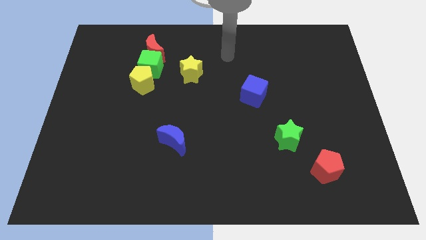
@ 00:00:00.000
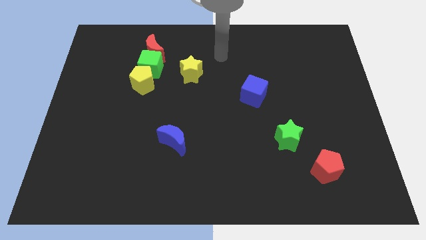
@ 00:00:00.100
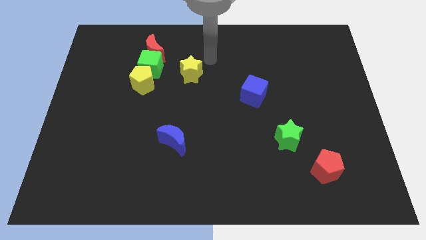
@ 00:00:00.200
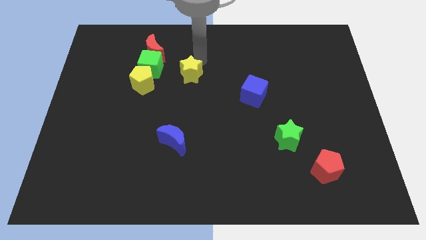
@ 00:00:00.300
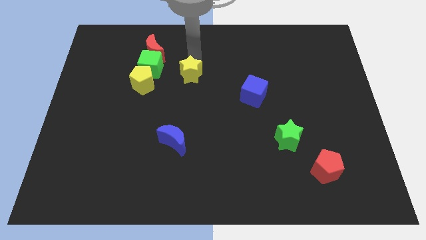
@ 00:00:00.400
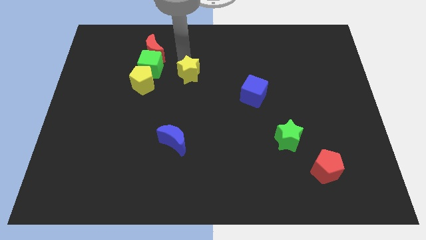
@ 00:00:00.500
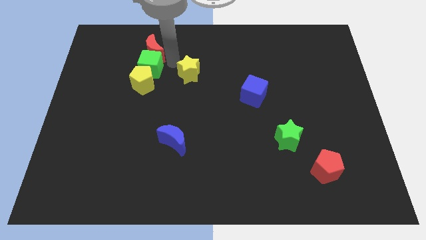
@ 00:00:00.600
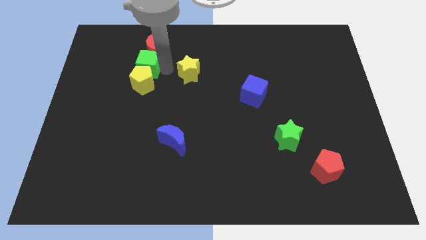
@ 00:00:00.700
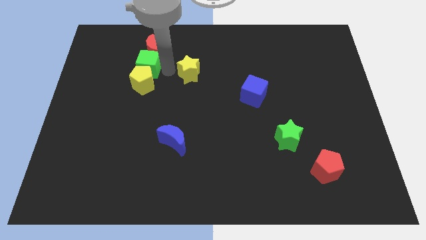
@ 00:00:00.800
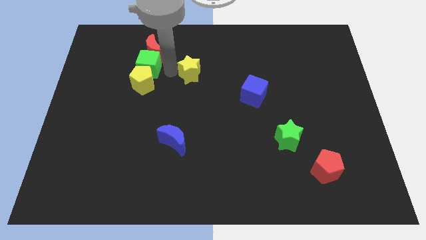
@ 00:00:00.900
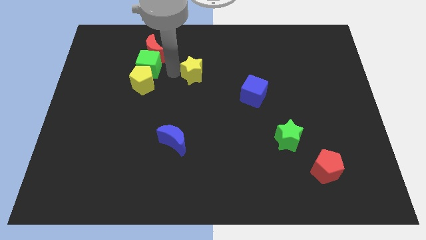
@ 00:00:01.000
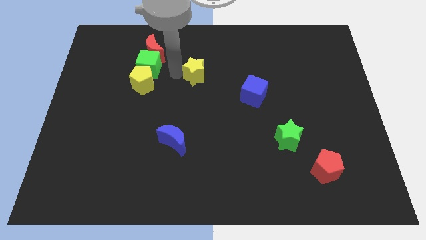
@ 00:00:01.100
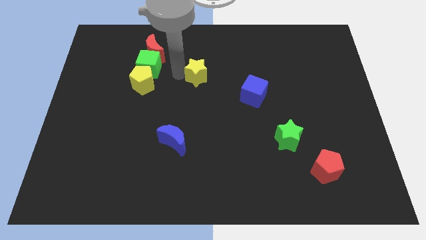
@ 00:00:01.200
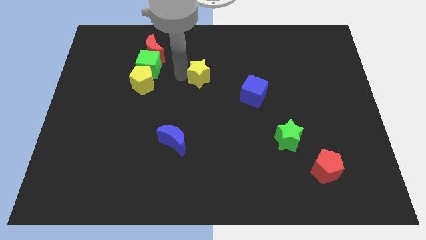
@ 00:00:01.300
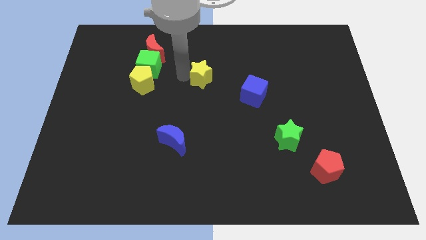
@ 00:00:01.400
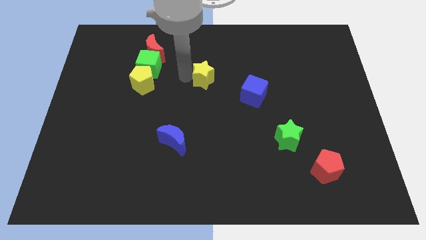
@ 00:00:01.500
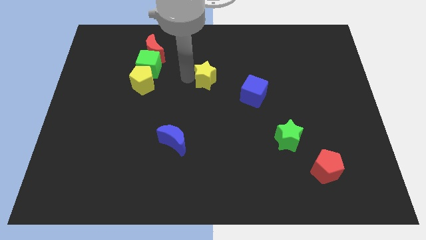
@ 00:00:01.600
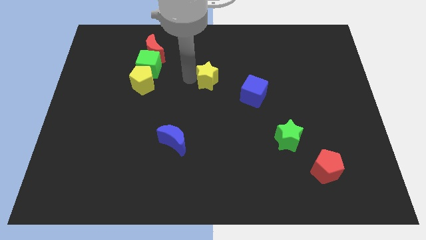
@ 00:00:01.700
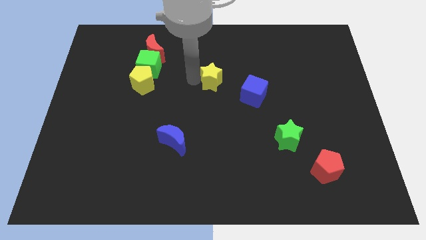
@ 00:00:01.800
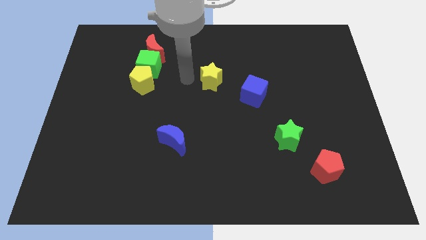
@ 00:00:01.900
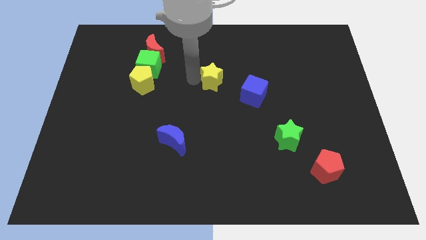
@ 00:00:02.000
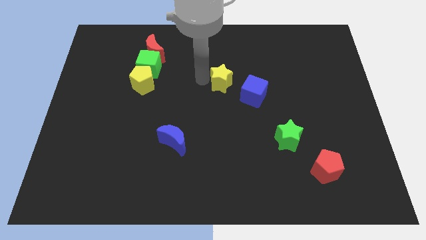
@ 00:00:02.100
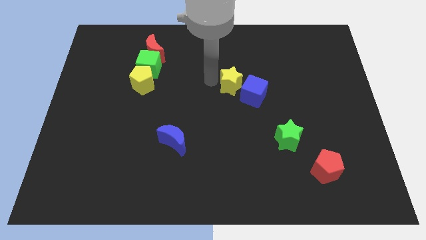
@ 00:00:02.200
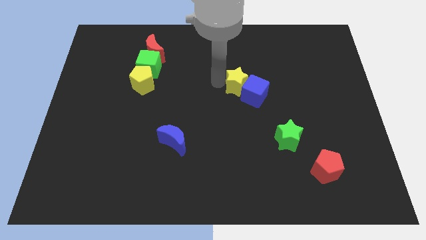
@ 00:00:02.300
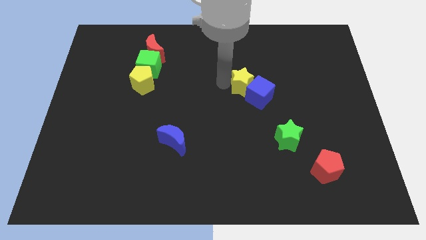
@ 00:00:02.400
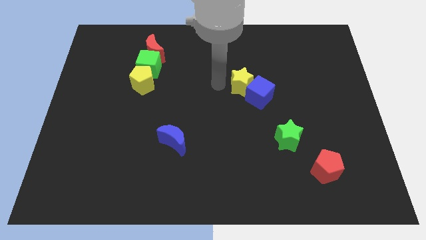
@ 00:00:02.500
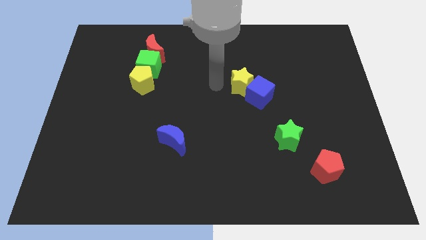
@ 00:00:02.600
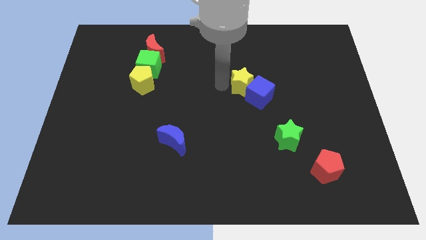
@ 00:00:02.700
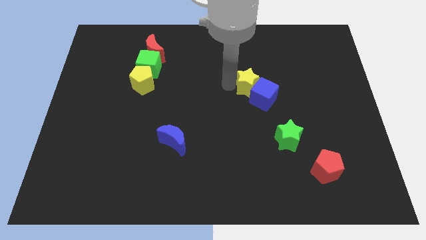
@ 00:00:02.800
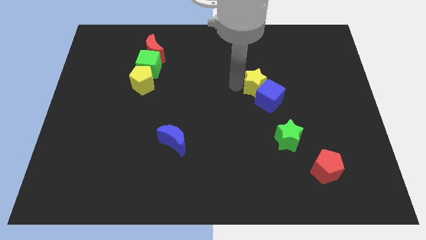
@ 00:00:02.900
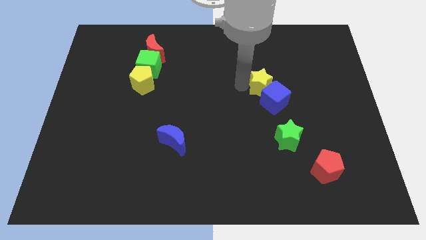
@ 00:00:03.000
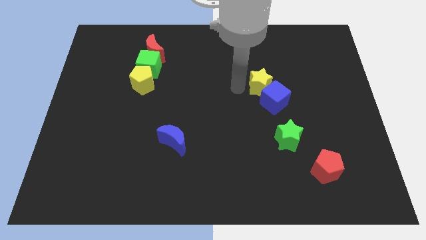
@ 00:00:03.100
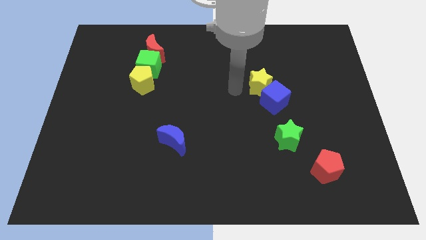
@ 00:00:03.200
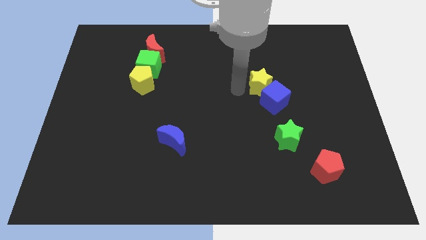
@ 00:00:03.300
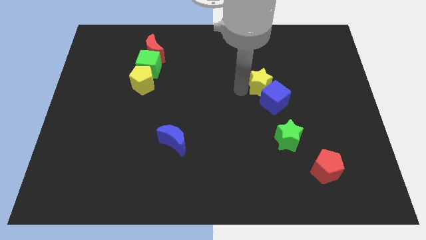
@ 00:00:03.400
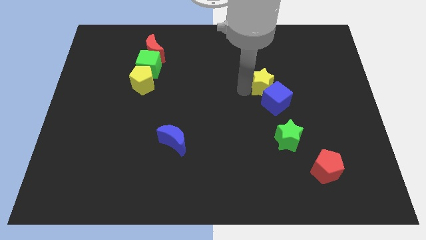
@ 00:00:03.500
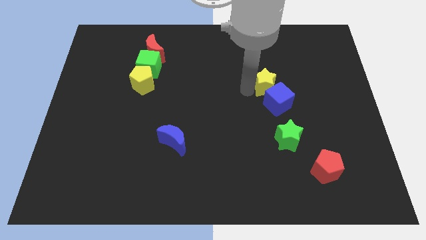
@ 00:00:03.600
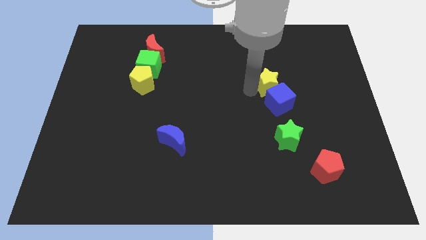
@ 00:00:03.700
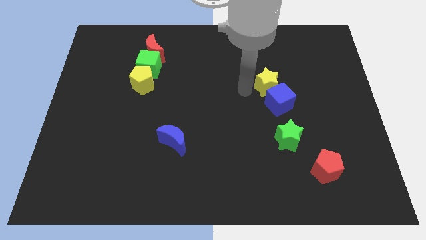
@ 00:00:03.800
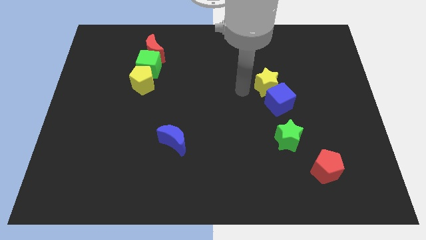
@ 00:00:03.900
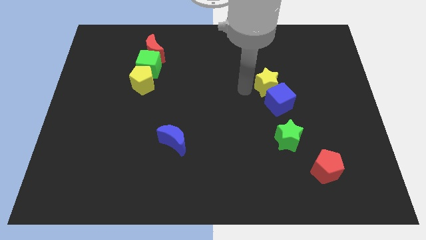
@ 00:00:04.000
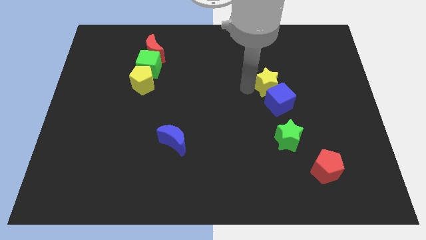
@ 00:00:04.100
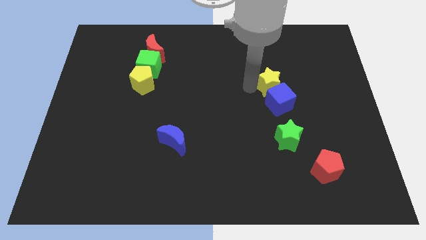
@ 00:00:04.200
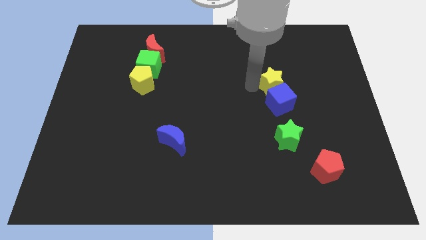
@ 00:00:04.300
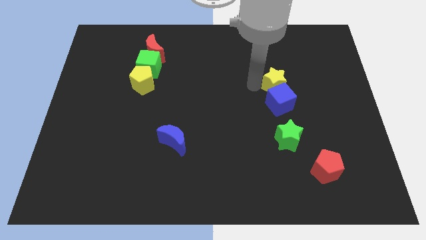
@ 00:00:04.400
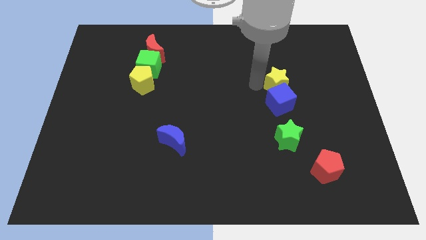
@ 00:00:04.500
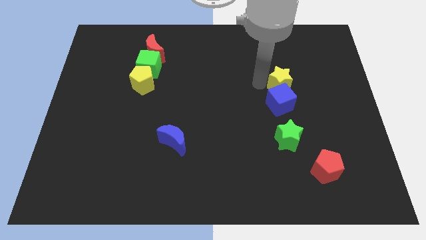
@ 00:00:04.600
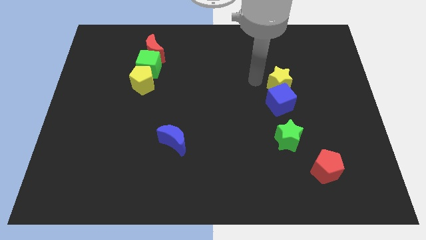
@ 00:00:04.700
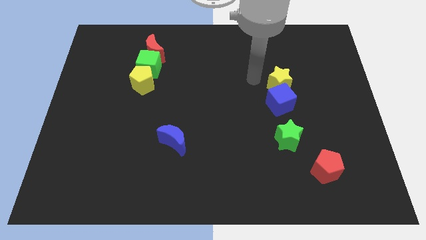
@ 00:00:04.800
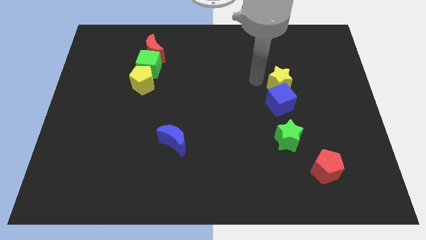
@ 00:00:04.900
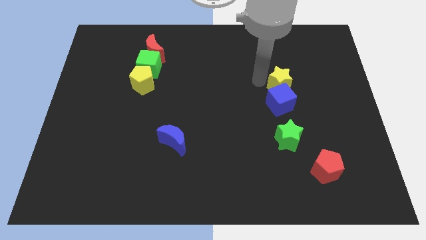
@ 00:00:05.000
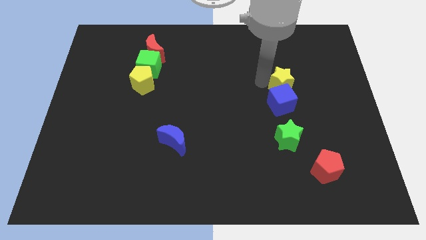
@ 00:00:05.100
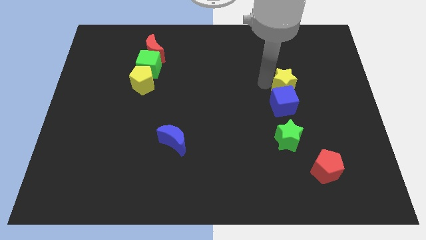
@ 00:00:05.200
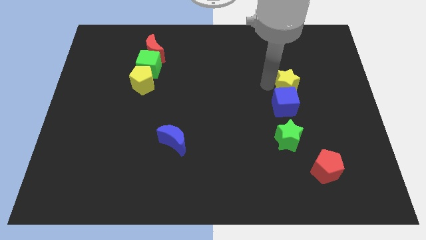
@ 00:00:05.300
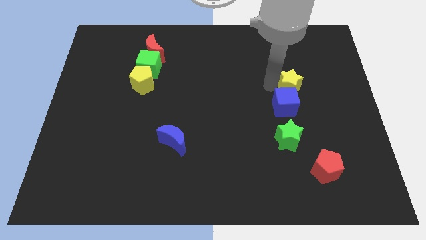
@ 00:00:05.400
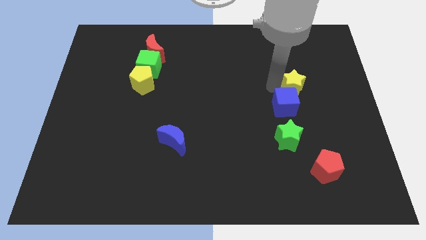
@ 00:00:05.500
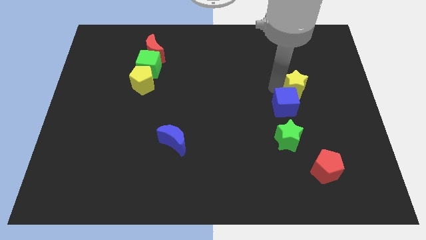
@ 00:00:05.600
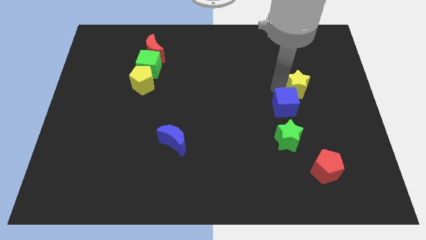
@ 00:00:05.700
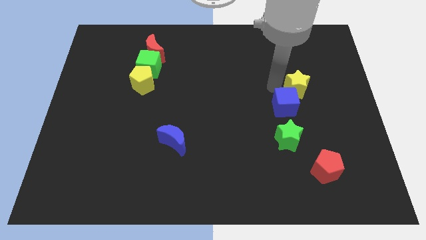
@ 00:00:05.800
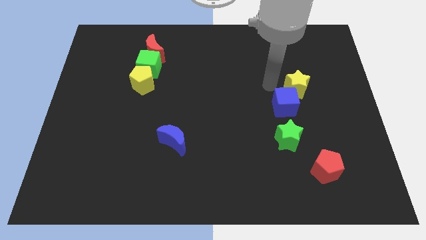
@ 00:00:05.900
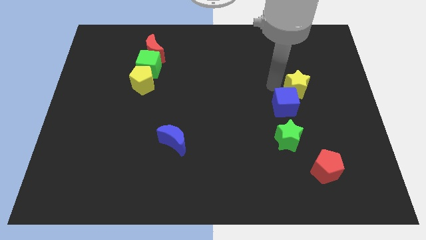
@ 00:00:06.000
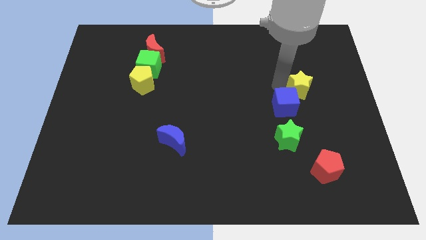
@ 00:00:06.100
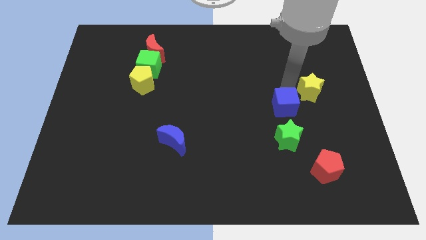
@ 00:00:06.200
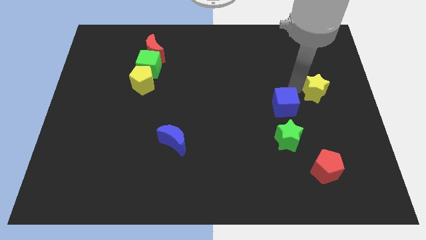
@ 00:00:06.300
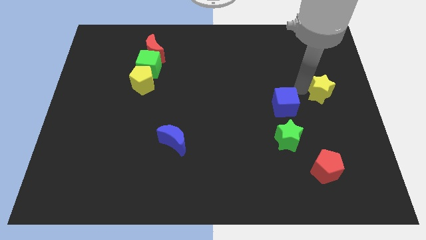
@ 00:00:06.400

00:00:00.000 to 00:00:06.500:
move the yellow star to the right side of the board
